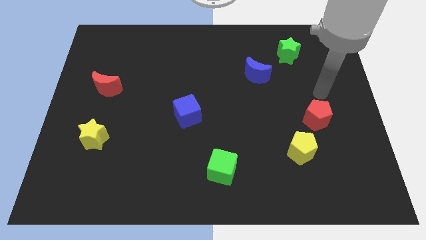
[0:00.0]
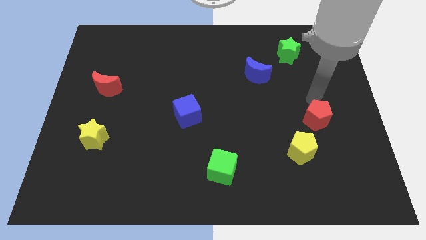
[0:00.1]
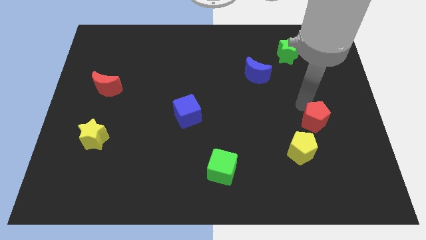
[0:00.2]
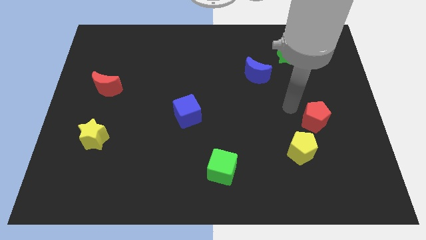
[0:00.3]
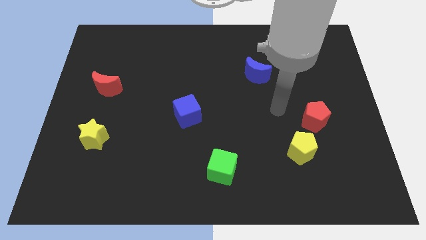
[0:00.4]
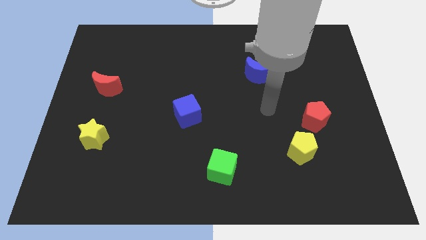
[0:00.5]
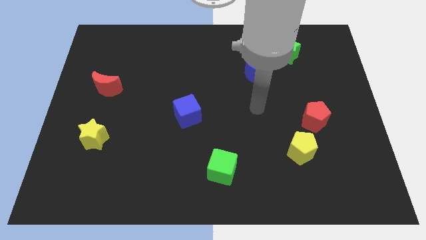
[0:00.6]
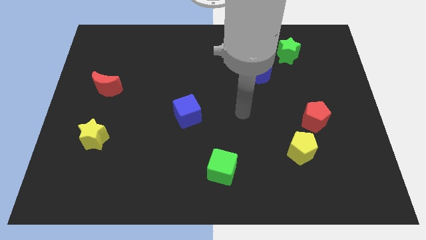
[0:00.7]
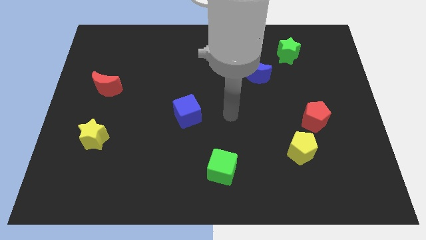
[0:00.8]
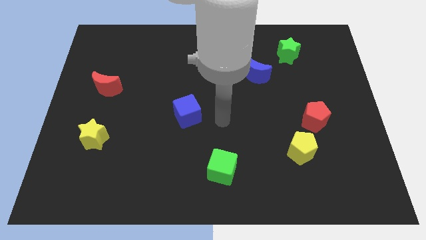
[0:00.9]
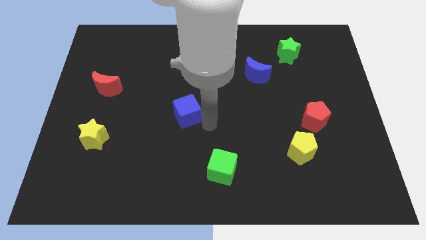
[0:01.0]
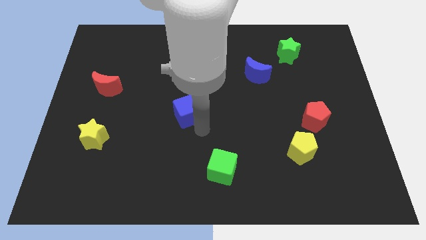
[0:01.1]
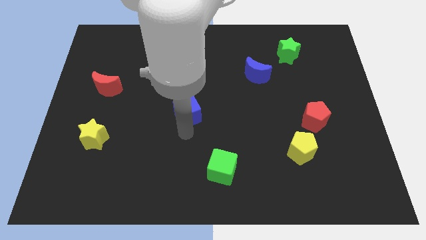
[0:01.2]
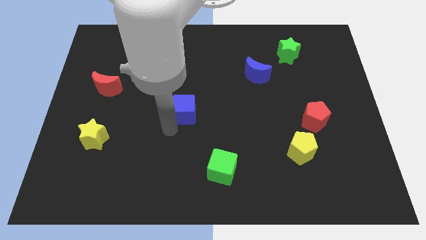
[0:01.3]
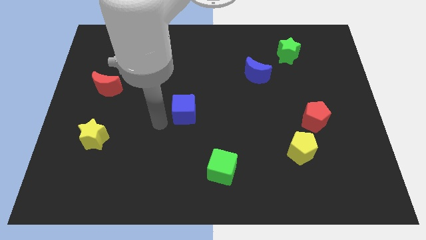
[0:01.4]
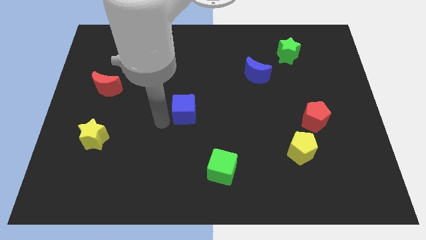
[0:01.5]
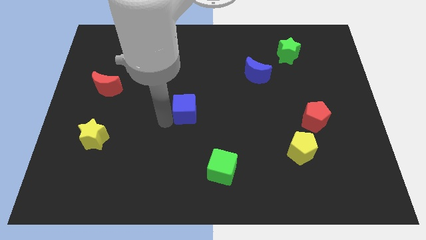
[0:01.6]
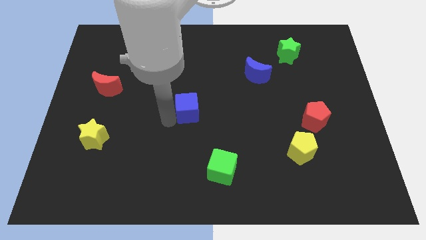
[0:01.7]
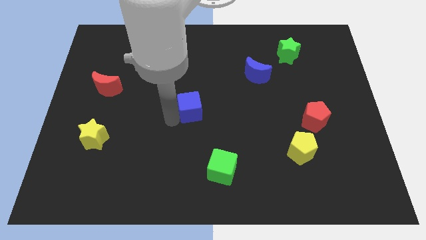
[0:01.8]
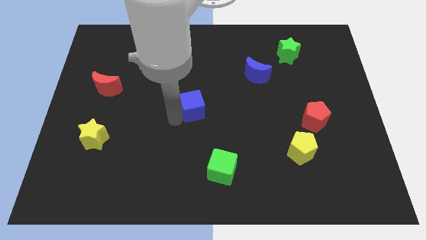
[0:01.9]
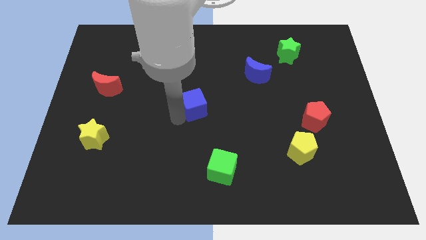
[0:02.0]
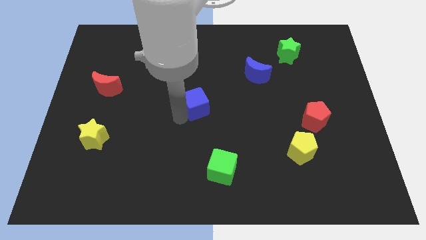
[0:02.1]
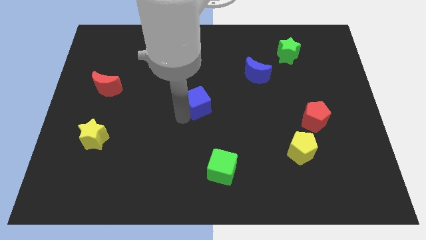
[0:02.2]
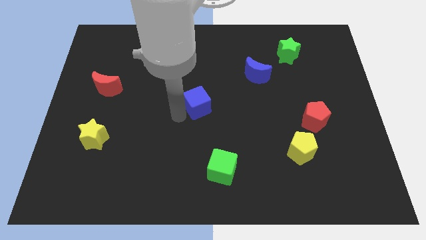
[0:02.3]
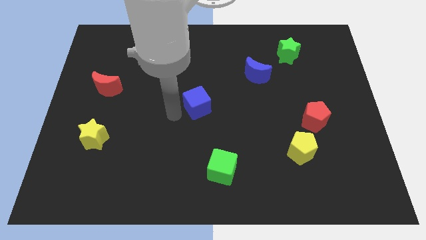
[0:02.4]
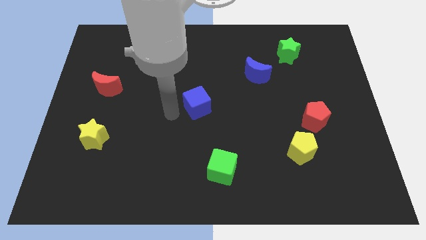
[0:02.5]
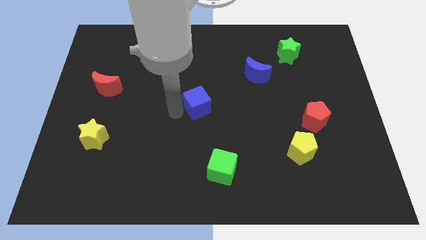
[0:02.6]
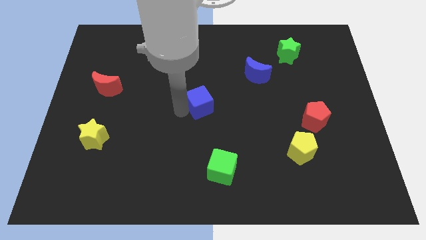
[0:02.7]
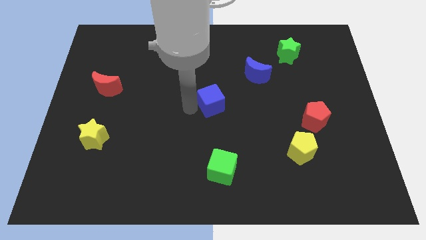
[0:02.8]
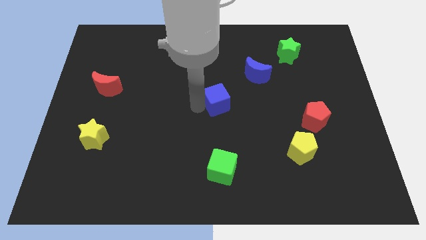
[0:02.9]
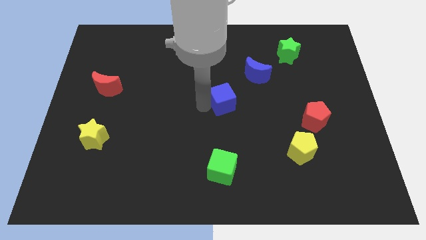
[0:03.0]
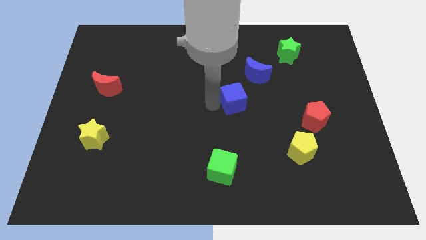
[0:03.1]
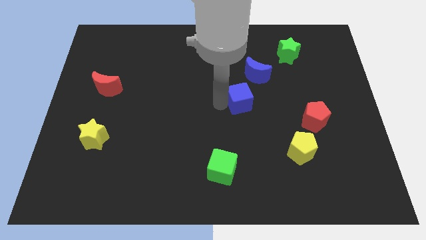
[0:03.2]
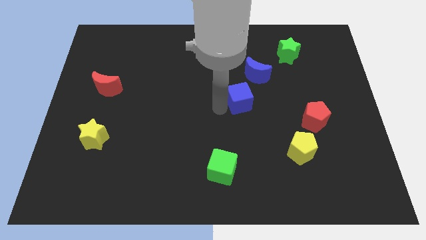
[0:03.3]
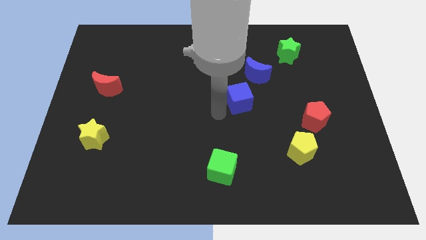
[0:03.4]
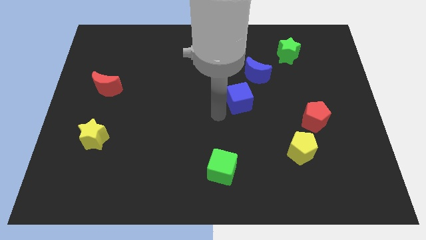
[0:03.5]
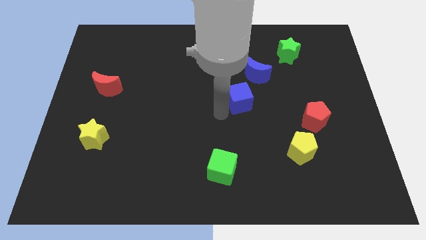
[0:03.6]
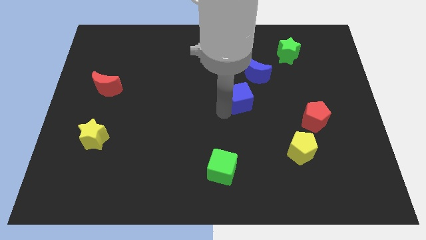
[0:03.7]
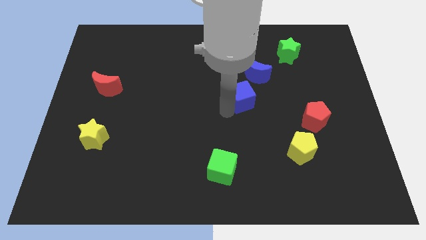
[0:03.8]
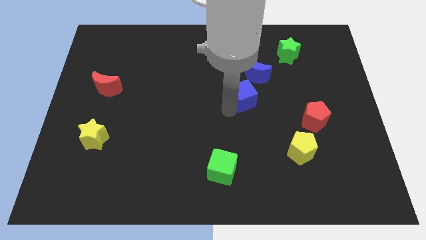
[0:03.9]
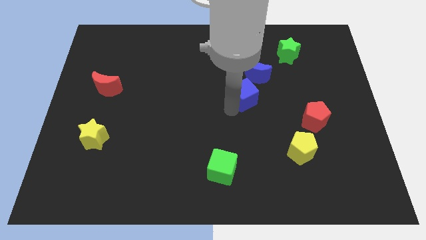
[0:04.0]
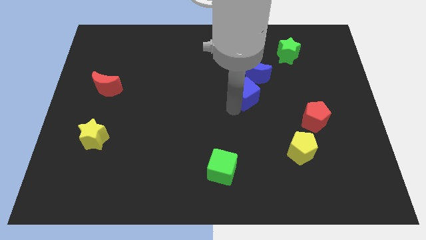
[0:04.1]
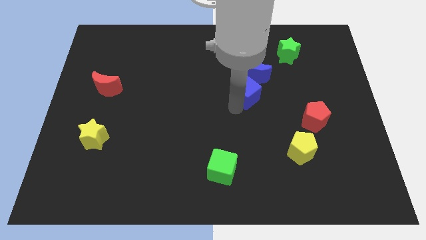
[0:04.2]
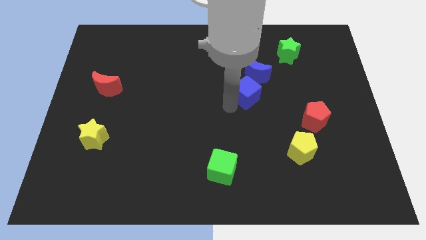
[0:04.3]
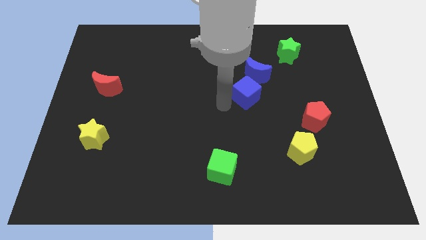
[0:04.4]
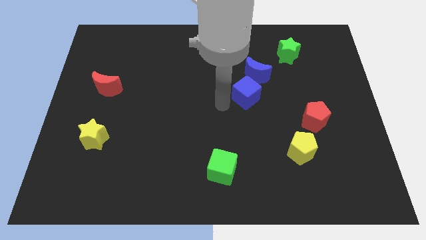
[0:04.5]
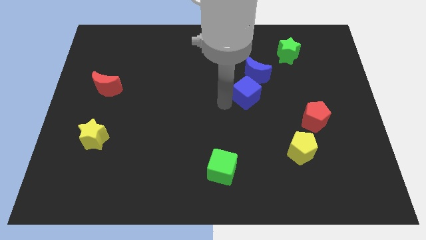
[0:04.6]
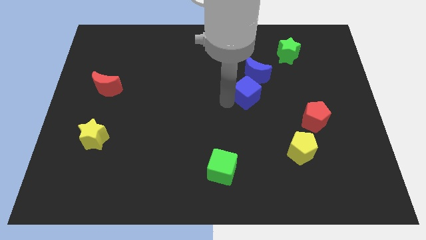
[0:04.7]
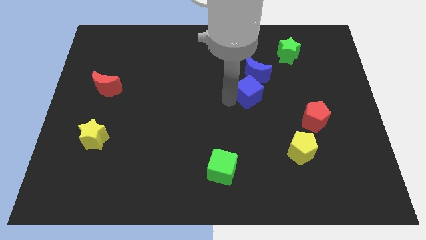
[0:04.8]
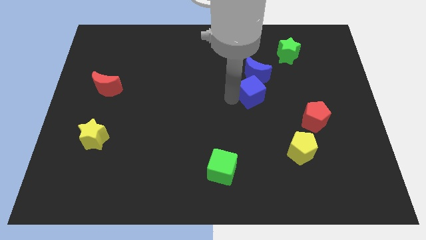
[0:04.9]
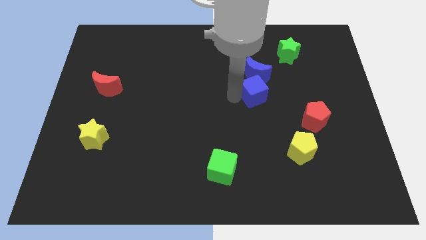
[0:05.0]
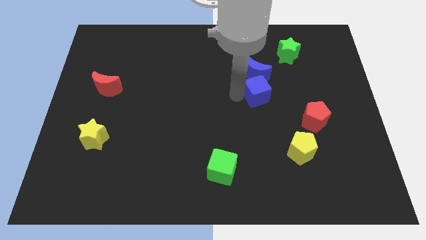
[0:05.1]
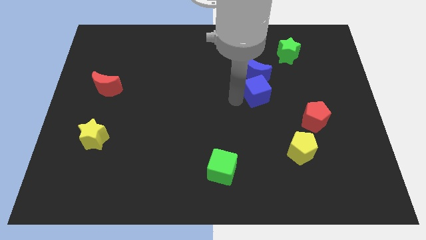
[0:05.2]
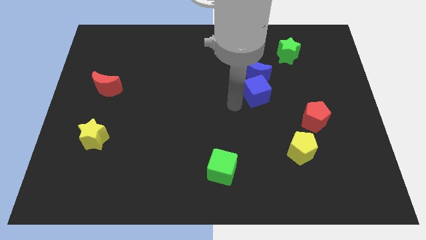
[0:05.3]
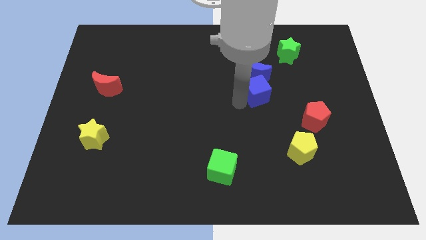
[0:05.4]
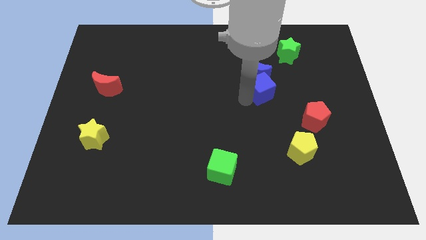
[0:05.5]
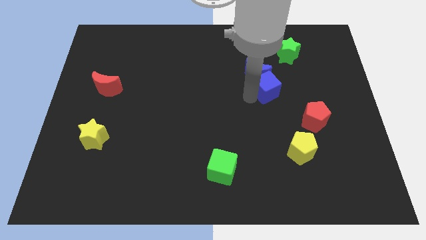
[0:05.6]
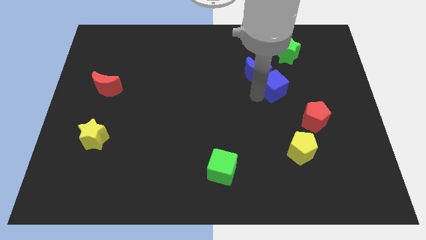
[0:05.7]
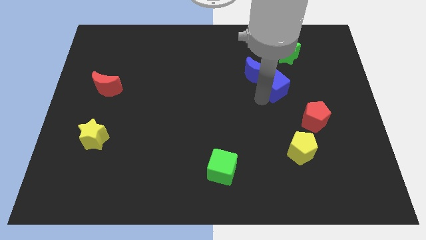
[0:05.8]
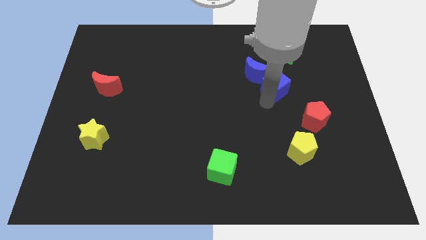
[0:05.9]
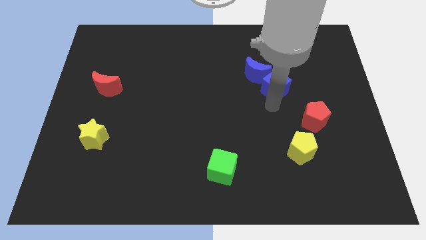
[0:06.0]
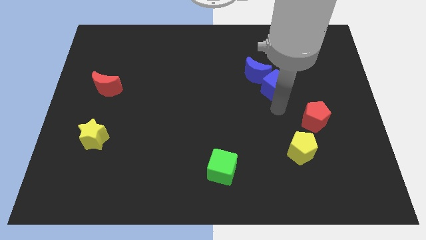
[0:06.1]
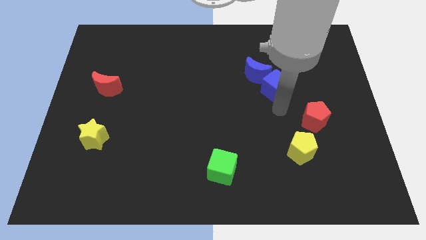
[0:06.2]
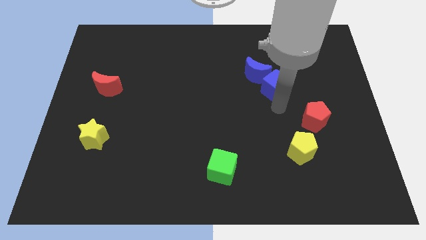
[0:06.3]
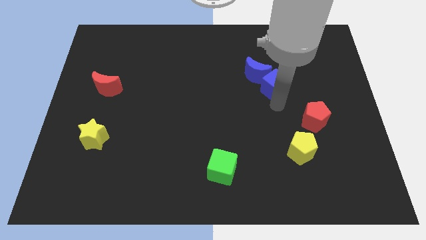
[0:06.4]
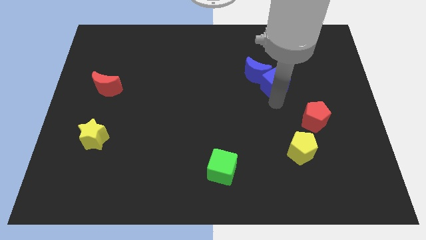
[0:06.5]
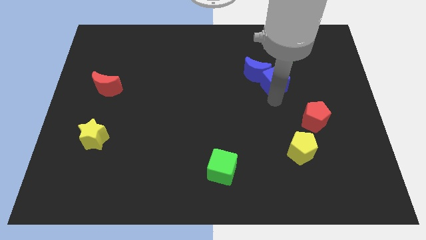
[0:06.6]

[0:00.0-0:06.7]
put the blue cube to the bottom left of the green star
